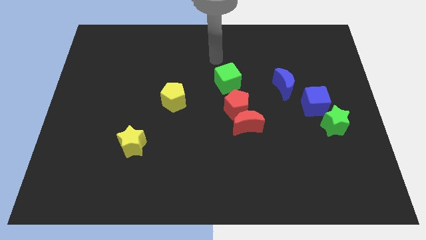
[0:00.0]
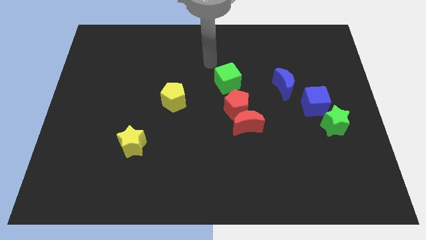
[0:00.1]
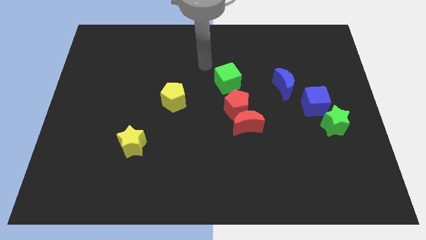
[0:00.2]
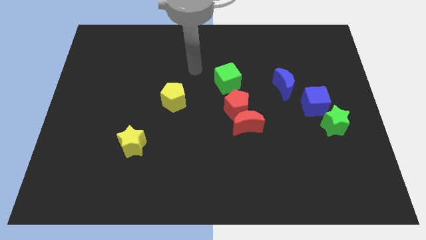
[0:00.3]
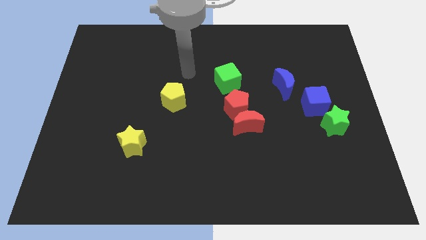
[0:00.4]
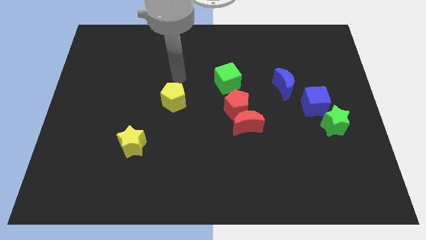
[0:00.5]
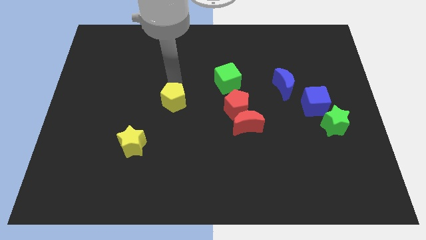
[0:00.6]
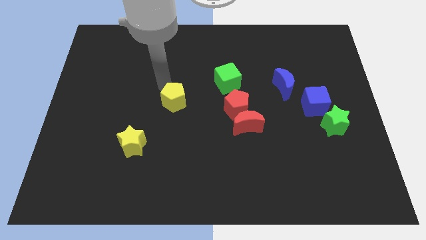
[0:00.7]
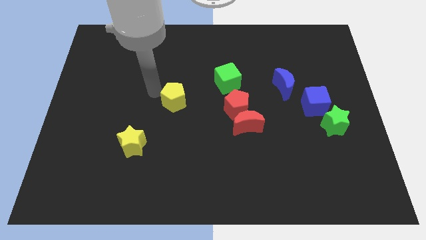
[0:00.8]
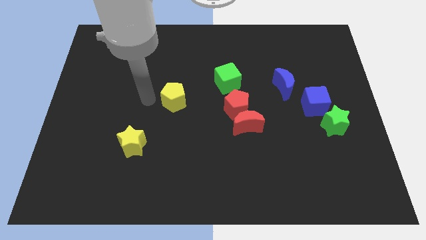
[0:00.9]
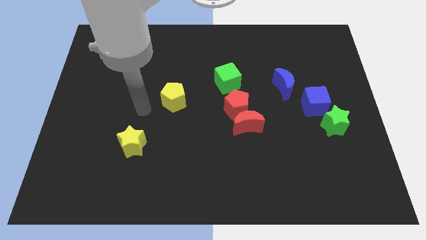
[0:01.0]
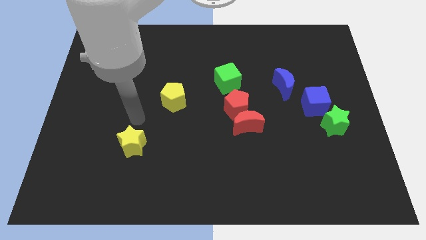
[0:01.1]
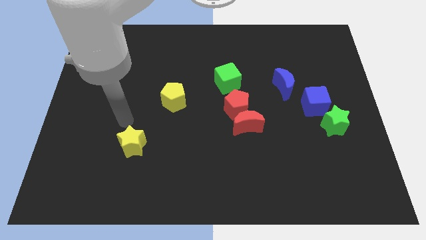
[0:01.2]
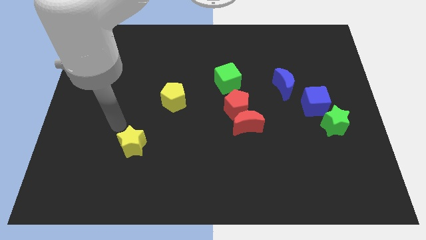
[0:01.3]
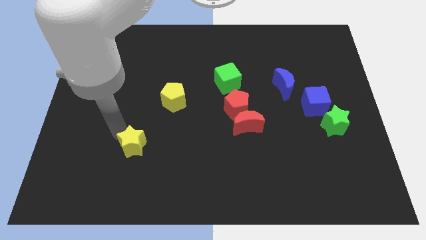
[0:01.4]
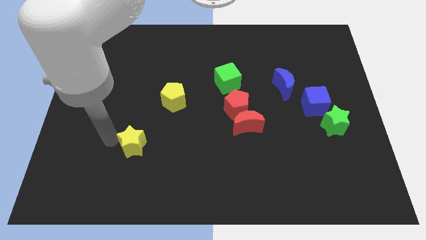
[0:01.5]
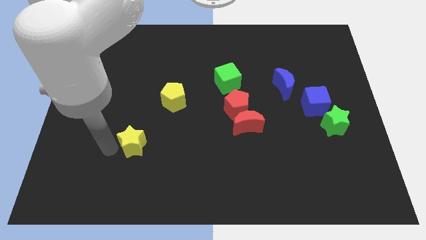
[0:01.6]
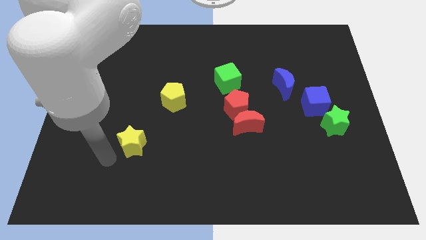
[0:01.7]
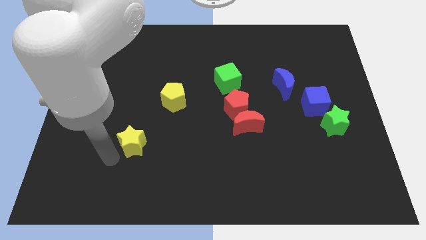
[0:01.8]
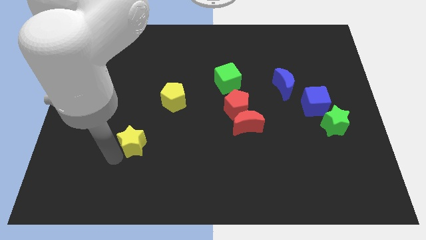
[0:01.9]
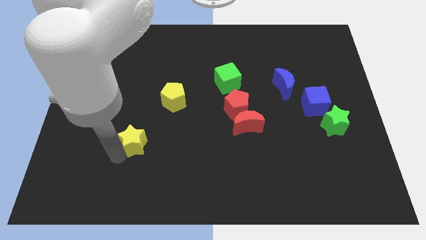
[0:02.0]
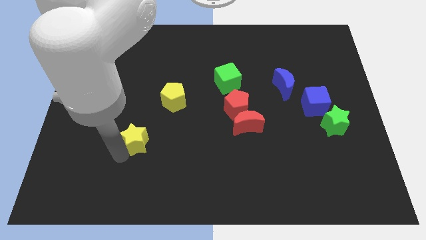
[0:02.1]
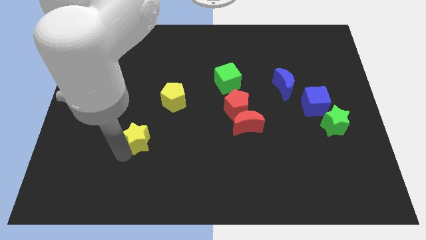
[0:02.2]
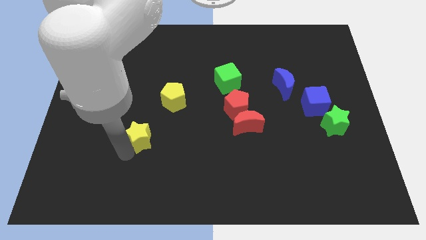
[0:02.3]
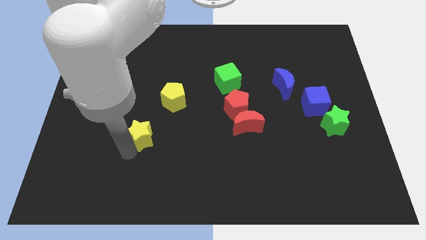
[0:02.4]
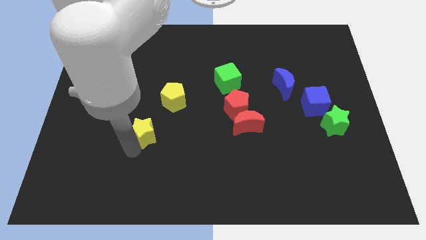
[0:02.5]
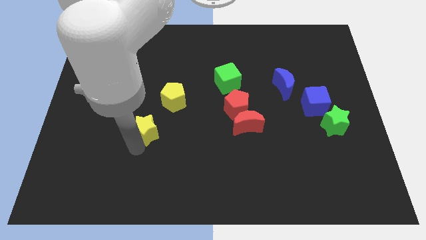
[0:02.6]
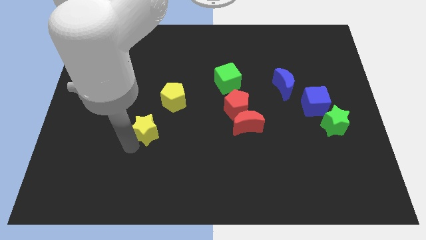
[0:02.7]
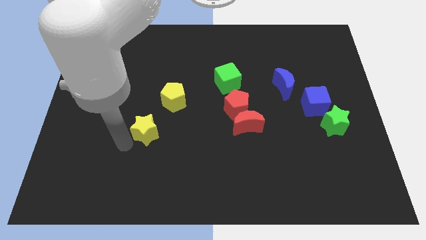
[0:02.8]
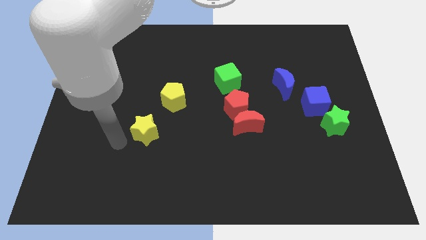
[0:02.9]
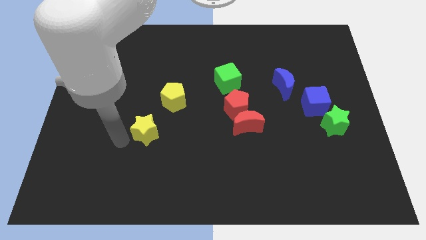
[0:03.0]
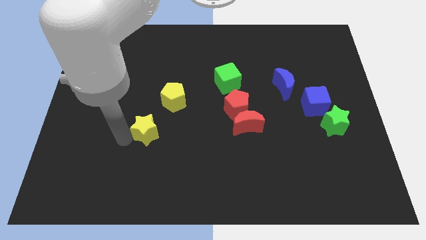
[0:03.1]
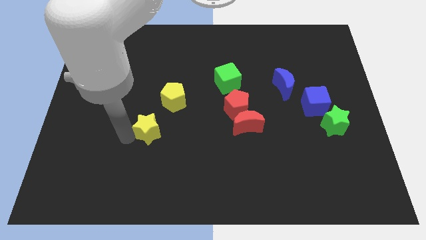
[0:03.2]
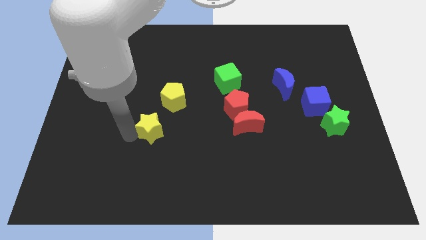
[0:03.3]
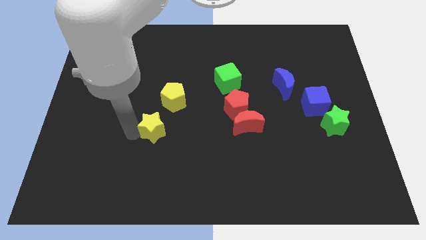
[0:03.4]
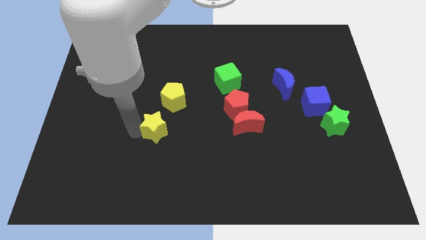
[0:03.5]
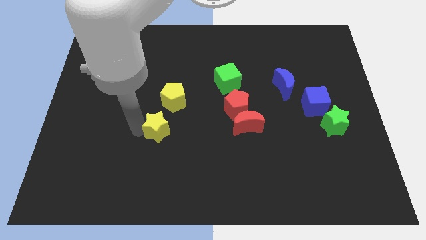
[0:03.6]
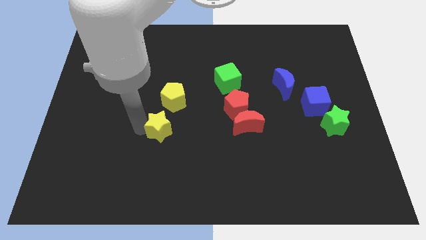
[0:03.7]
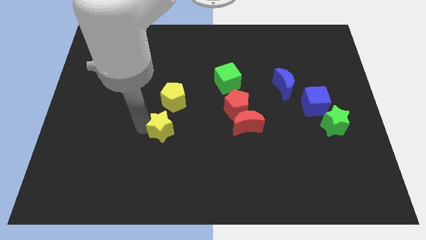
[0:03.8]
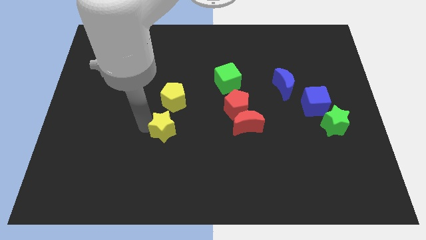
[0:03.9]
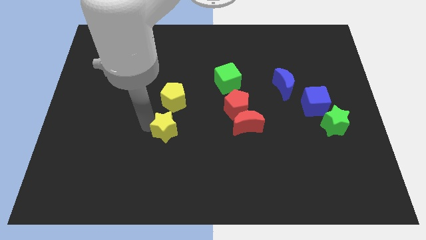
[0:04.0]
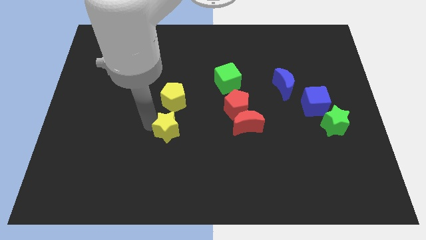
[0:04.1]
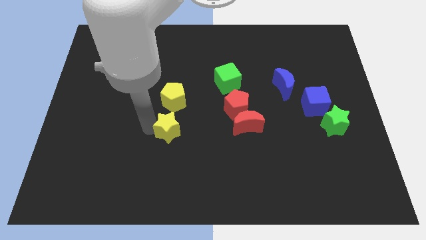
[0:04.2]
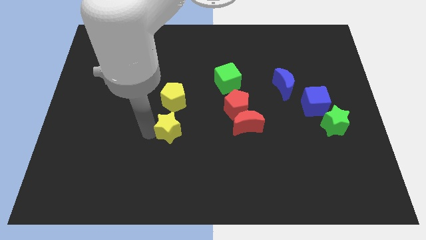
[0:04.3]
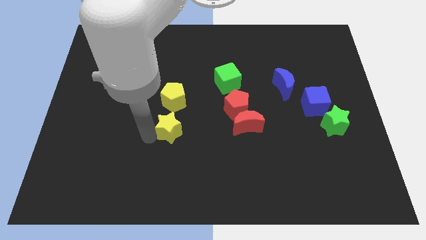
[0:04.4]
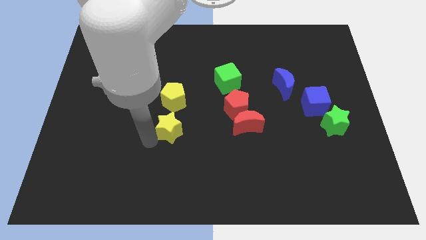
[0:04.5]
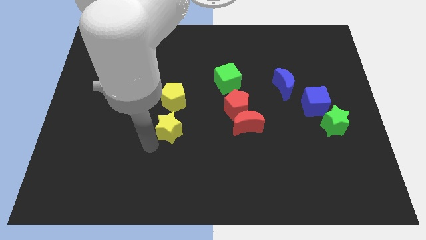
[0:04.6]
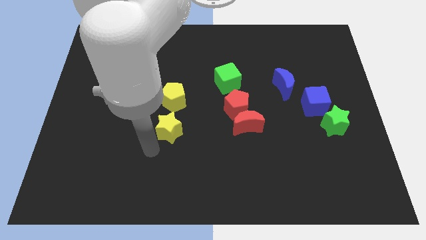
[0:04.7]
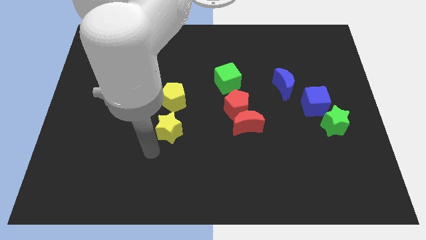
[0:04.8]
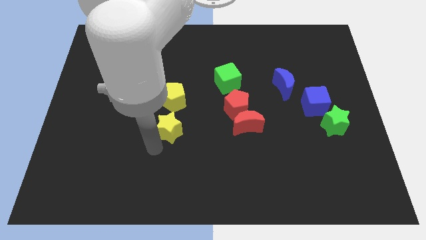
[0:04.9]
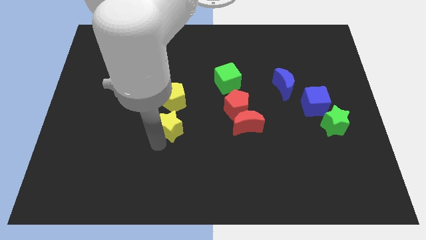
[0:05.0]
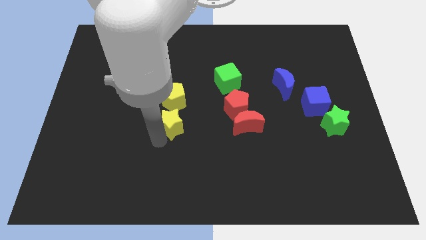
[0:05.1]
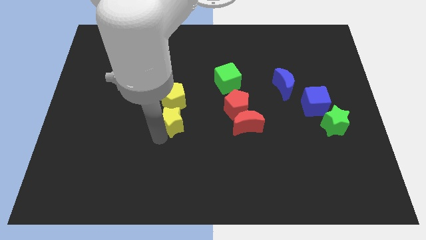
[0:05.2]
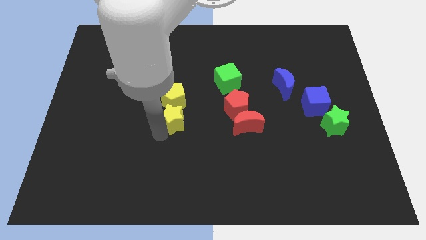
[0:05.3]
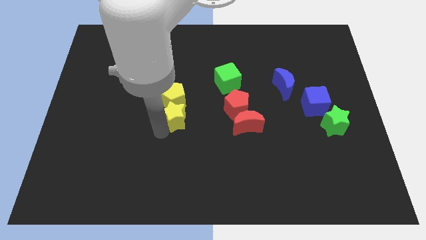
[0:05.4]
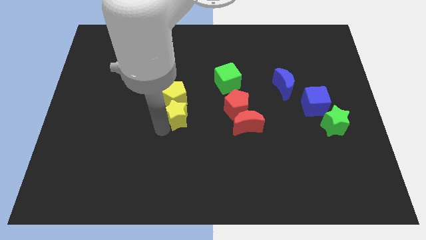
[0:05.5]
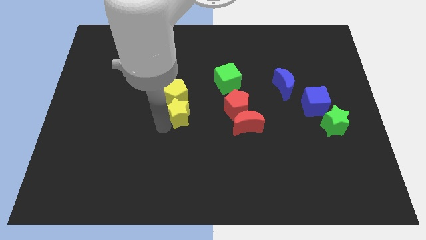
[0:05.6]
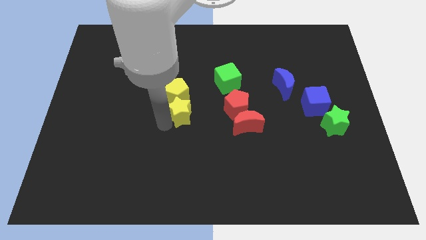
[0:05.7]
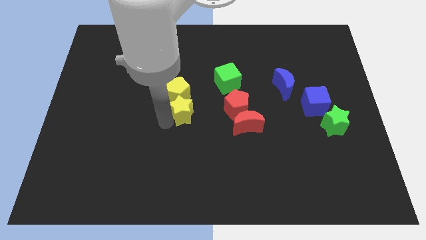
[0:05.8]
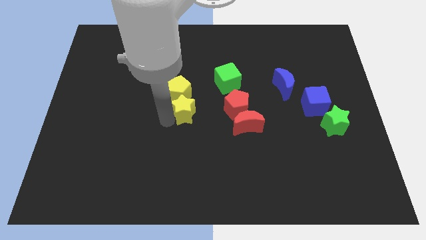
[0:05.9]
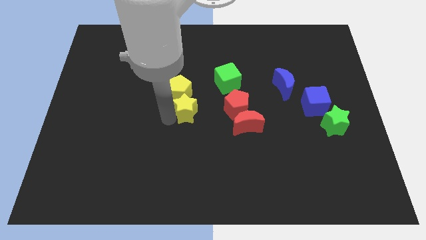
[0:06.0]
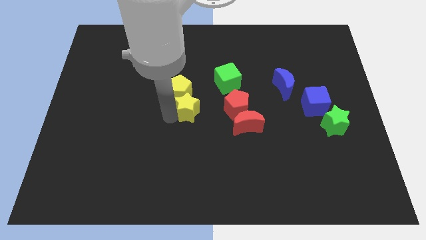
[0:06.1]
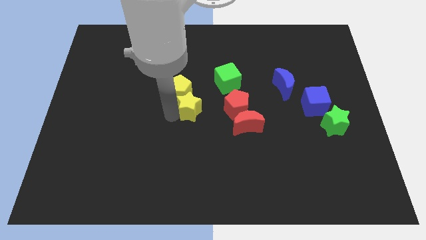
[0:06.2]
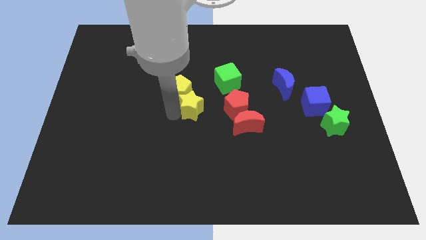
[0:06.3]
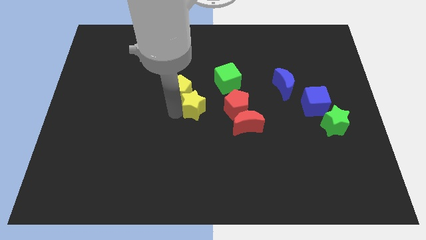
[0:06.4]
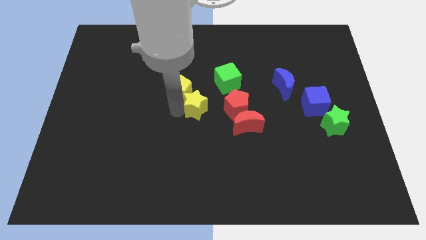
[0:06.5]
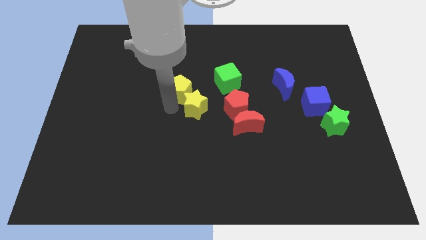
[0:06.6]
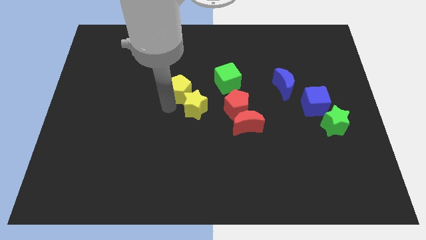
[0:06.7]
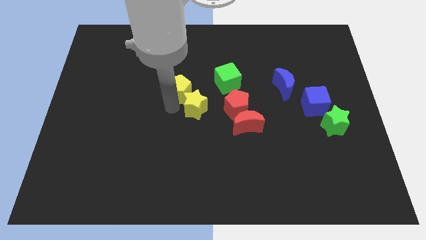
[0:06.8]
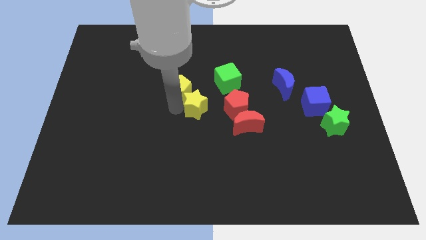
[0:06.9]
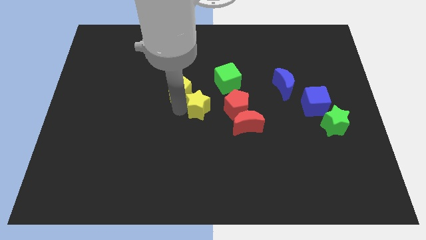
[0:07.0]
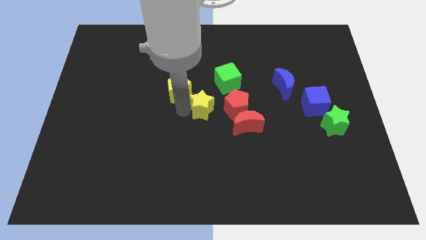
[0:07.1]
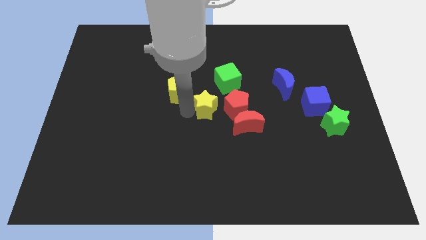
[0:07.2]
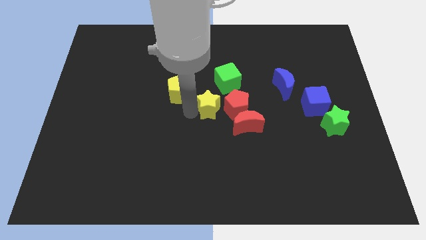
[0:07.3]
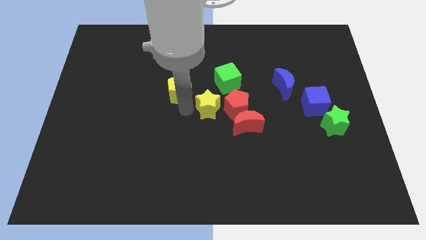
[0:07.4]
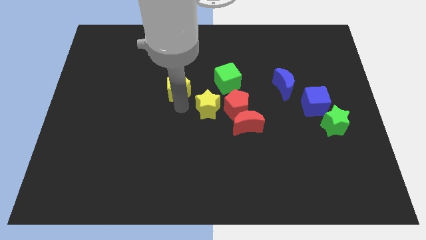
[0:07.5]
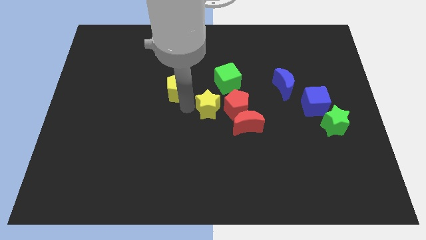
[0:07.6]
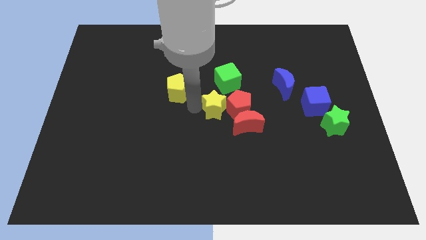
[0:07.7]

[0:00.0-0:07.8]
put the yellow star to the red pentagon
